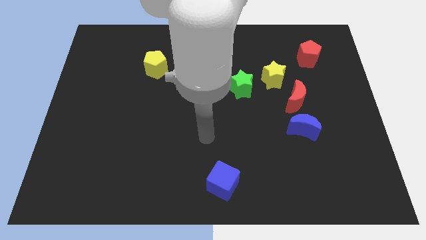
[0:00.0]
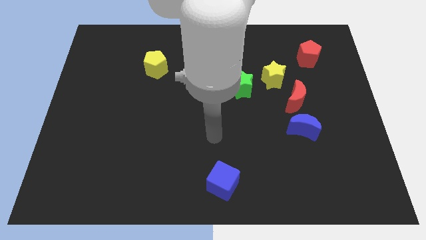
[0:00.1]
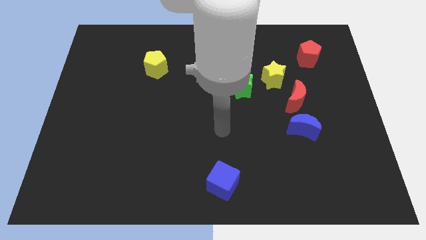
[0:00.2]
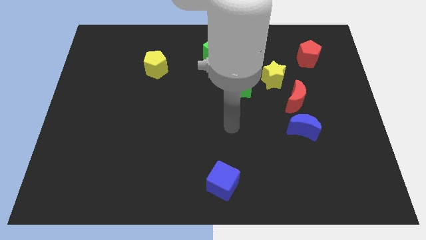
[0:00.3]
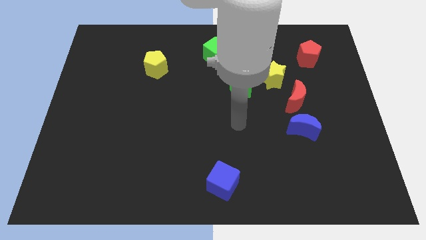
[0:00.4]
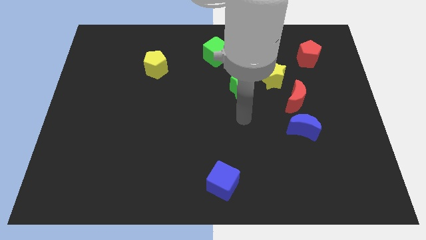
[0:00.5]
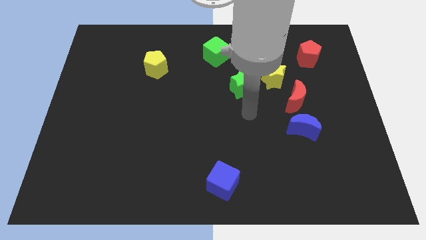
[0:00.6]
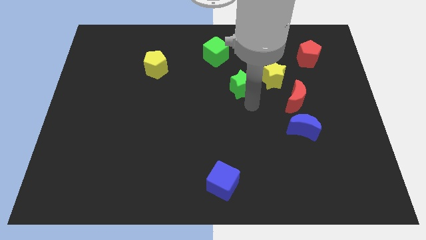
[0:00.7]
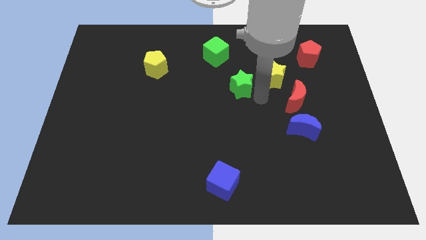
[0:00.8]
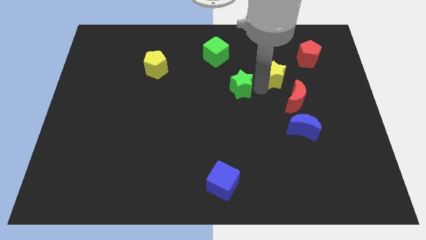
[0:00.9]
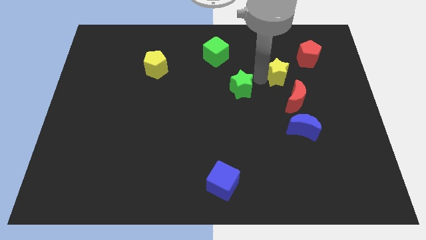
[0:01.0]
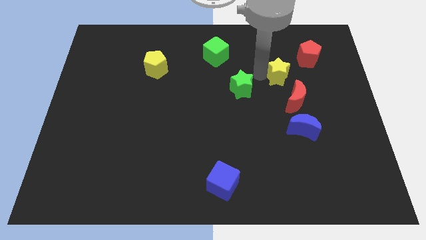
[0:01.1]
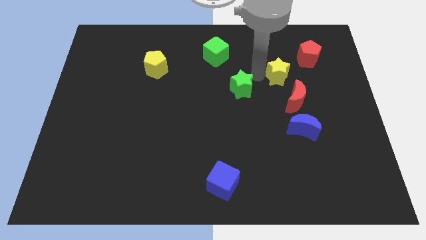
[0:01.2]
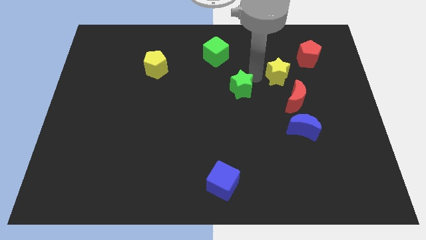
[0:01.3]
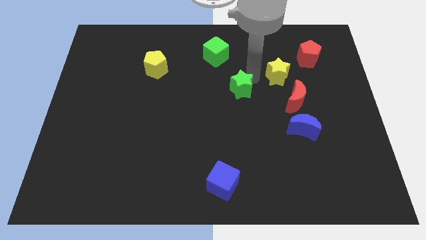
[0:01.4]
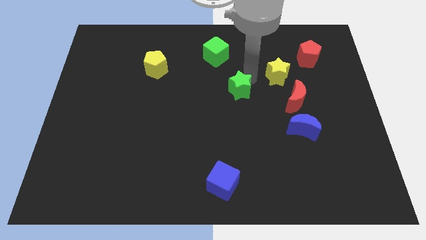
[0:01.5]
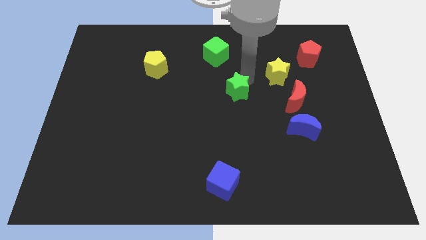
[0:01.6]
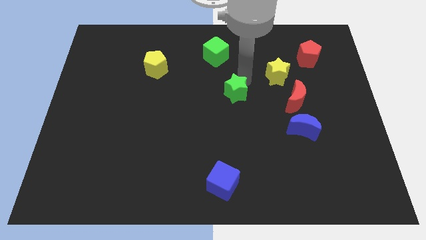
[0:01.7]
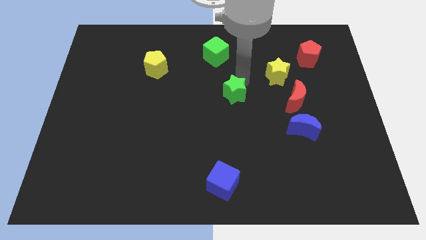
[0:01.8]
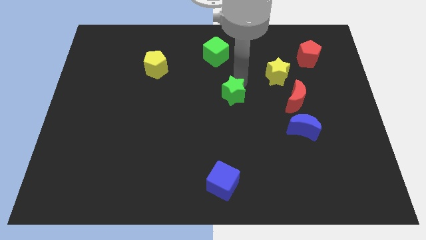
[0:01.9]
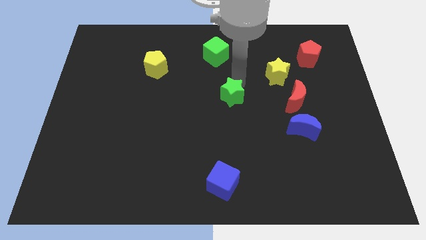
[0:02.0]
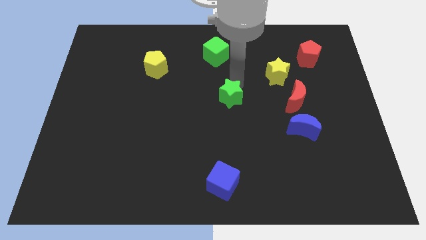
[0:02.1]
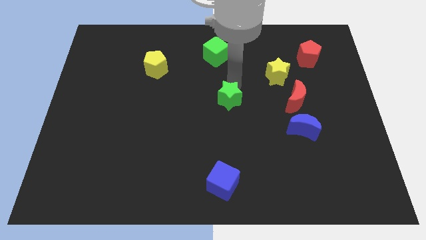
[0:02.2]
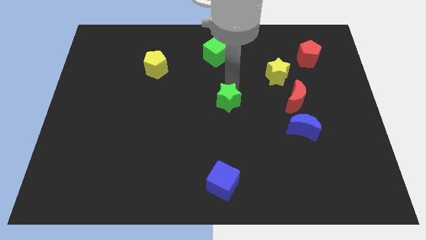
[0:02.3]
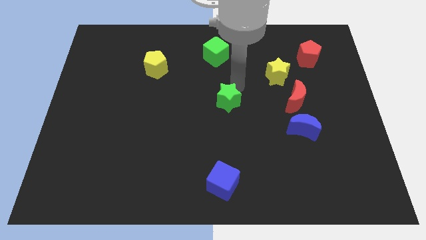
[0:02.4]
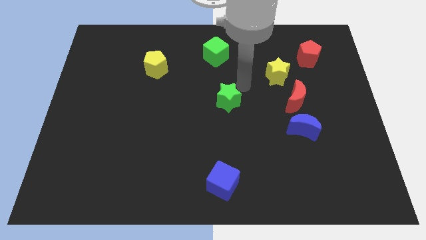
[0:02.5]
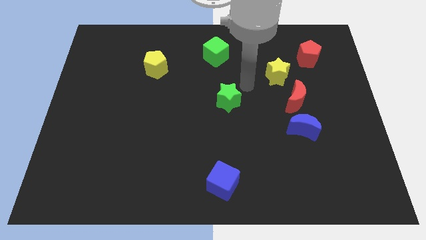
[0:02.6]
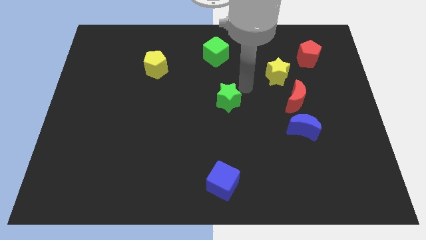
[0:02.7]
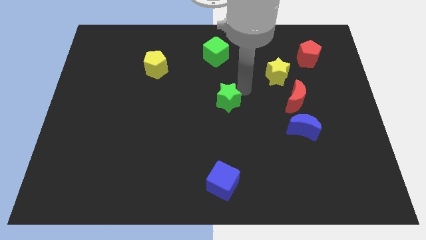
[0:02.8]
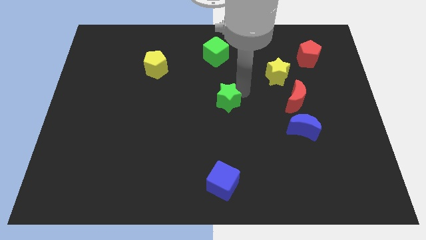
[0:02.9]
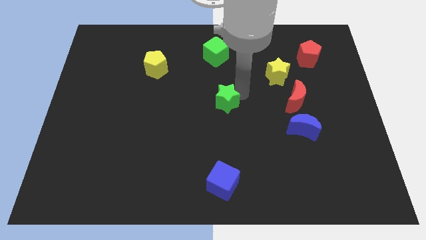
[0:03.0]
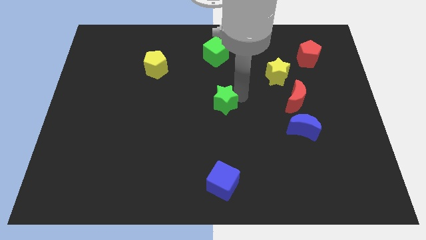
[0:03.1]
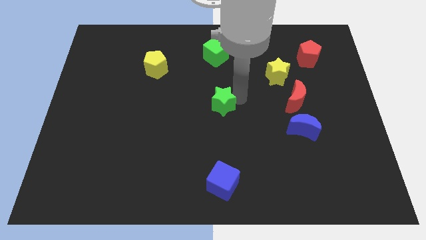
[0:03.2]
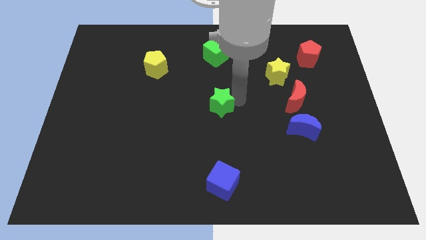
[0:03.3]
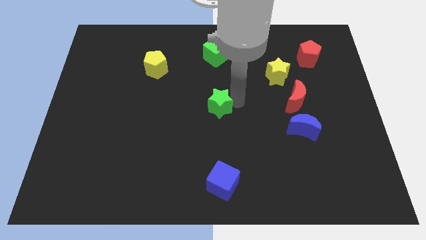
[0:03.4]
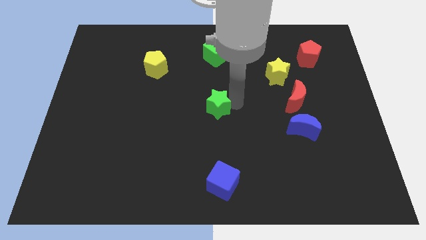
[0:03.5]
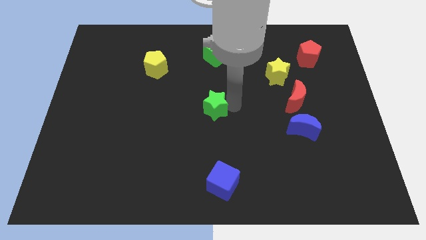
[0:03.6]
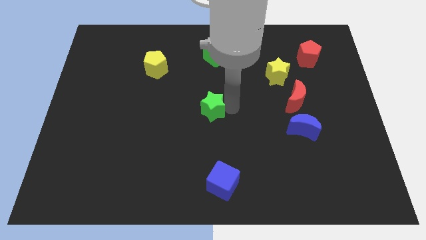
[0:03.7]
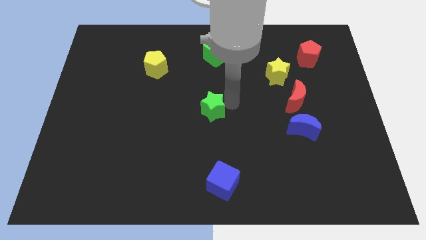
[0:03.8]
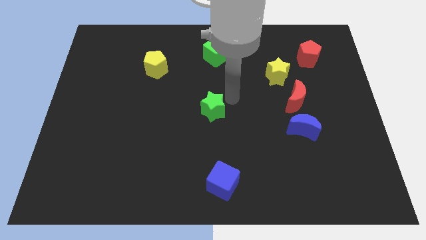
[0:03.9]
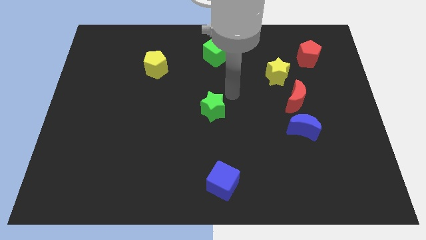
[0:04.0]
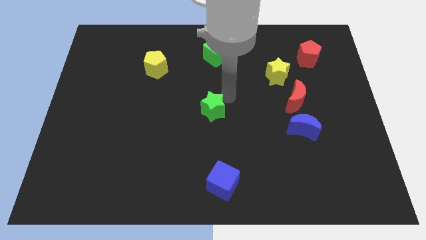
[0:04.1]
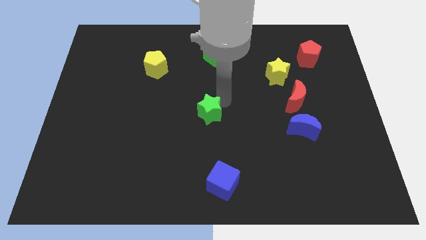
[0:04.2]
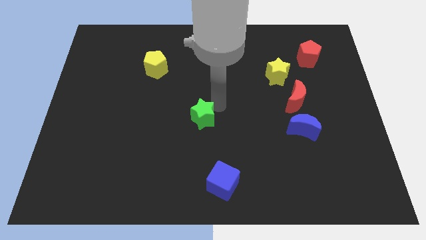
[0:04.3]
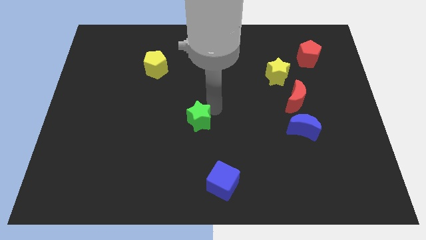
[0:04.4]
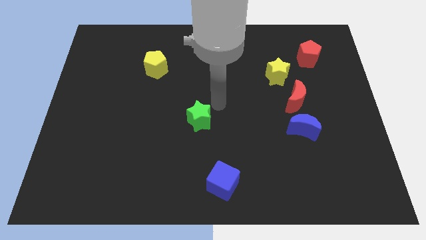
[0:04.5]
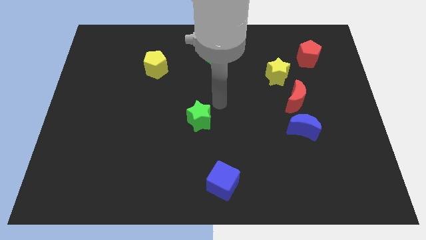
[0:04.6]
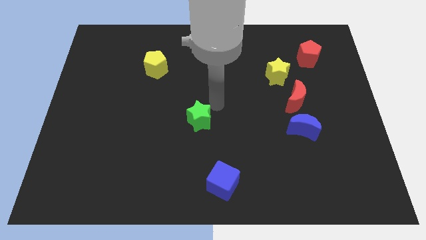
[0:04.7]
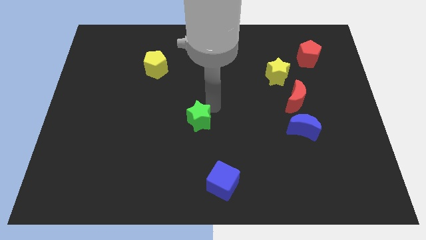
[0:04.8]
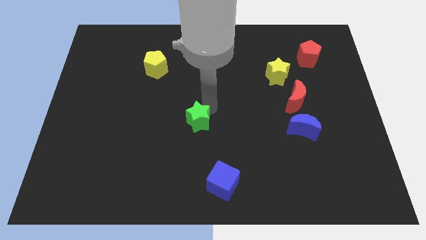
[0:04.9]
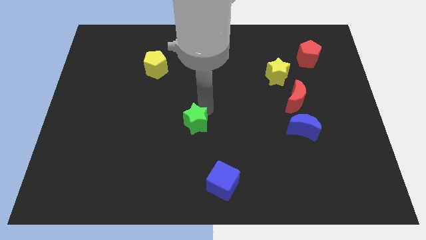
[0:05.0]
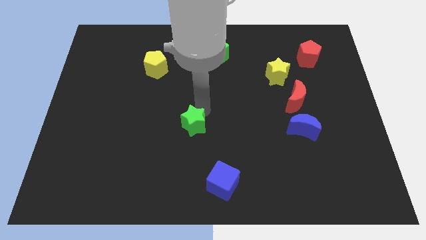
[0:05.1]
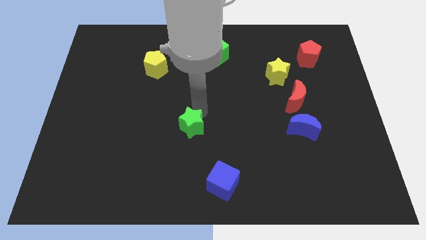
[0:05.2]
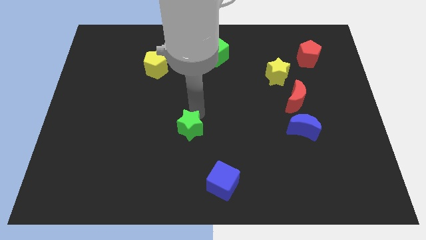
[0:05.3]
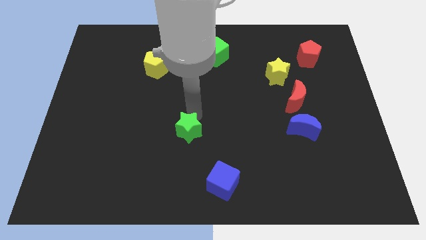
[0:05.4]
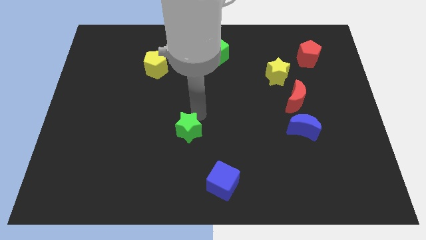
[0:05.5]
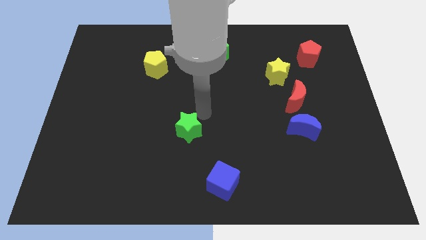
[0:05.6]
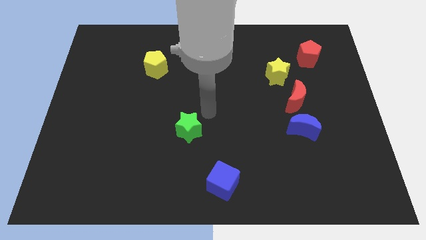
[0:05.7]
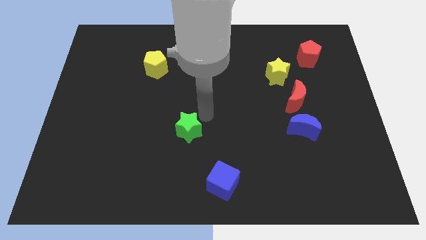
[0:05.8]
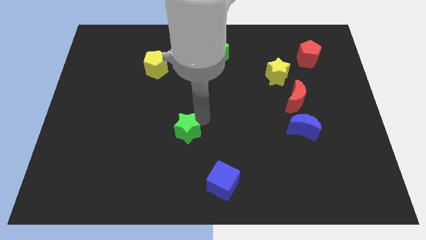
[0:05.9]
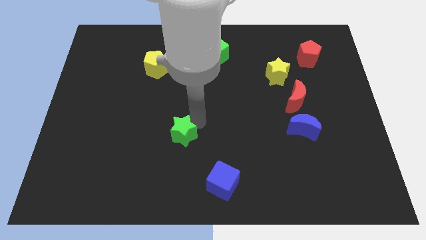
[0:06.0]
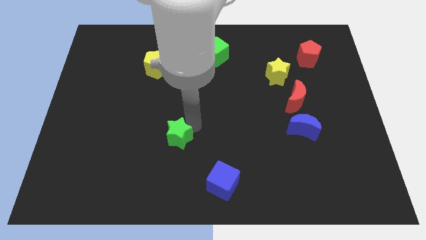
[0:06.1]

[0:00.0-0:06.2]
slide the green star down and left diagonally

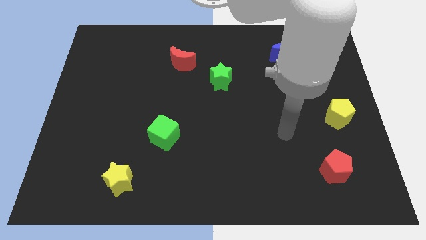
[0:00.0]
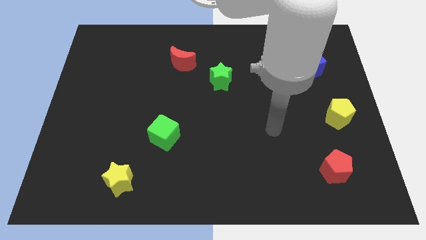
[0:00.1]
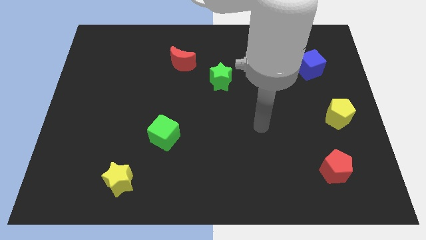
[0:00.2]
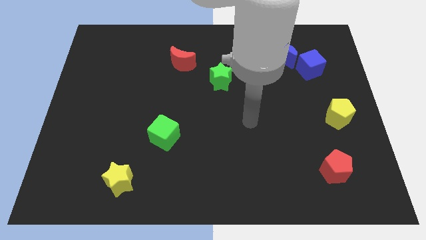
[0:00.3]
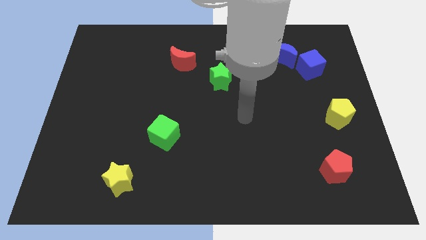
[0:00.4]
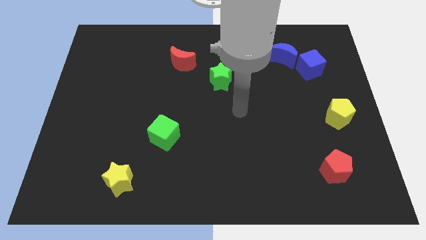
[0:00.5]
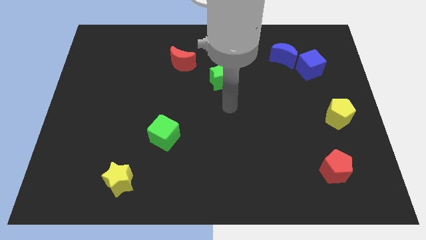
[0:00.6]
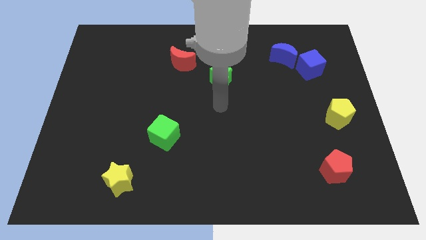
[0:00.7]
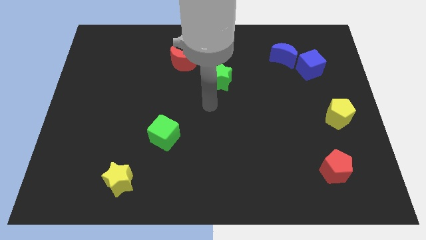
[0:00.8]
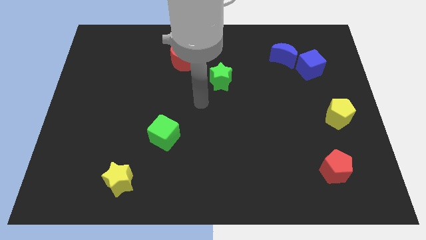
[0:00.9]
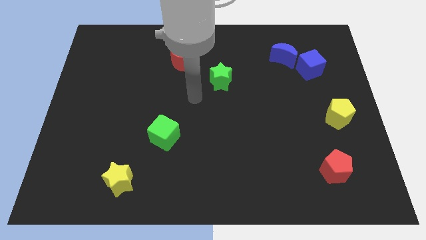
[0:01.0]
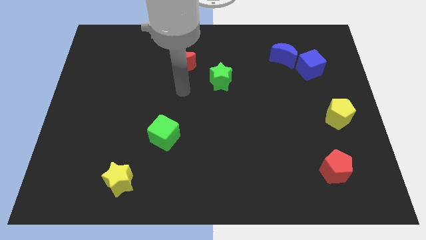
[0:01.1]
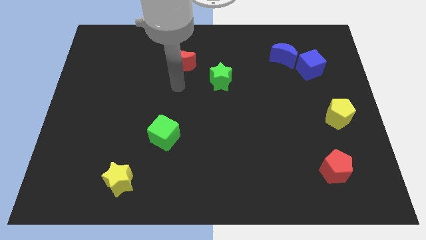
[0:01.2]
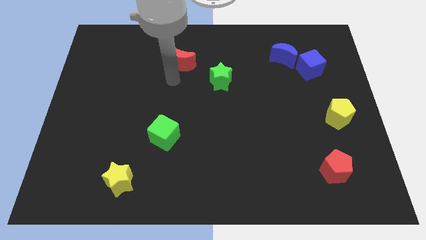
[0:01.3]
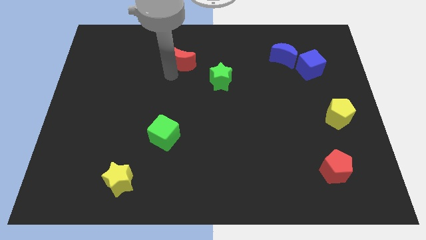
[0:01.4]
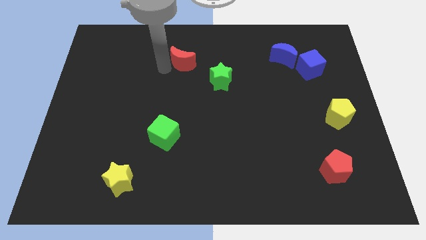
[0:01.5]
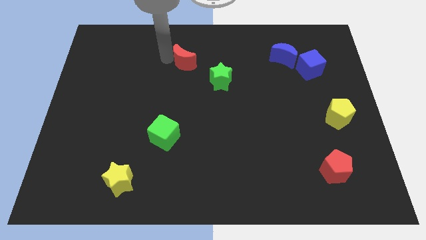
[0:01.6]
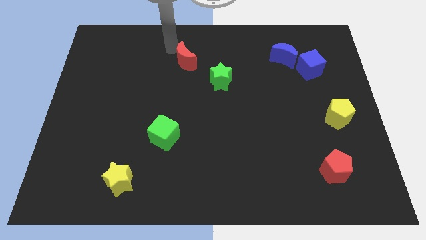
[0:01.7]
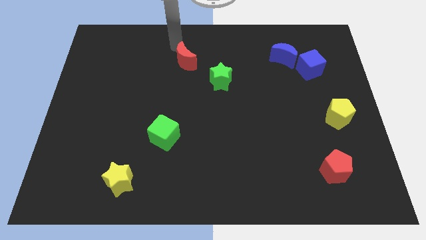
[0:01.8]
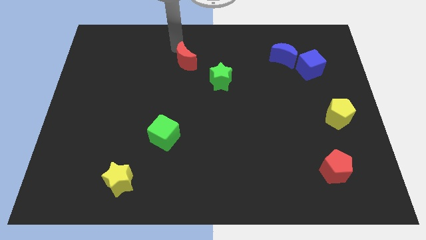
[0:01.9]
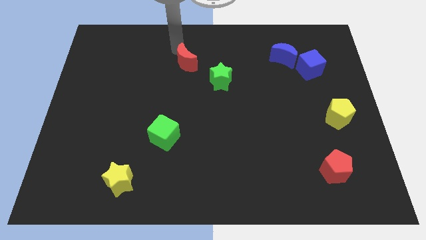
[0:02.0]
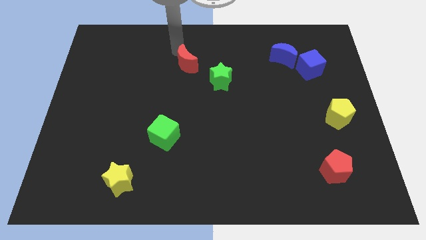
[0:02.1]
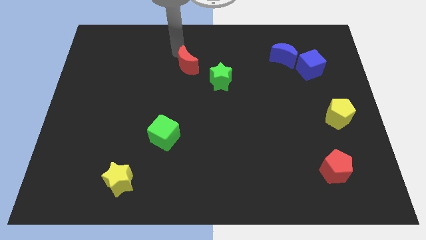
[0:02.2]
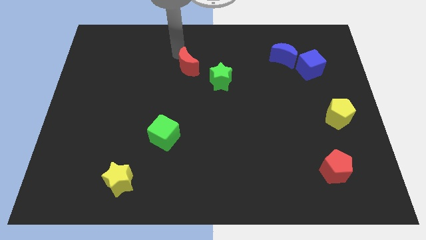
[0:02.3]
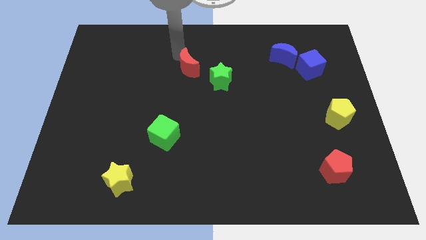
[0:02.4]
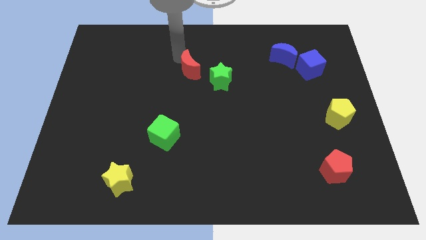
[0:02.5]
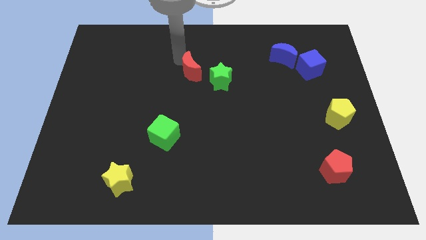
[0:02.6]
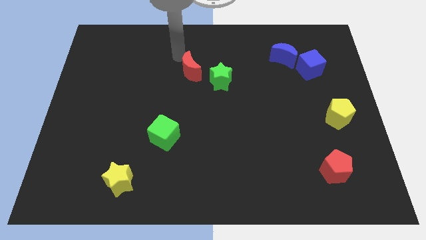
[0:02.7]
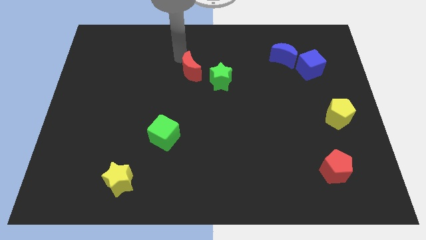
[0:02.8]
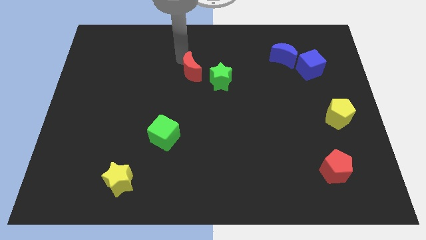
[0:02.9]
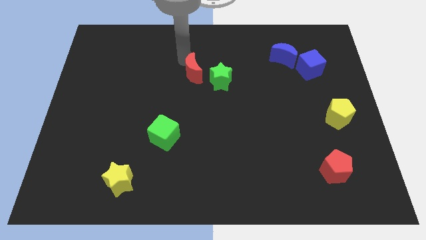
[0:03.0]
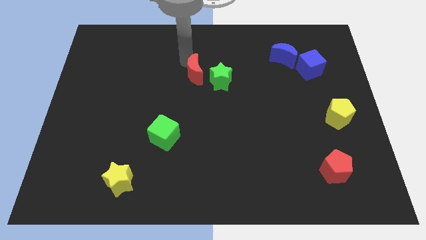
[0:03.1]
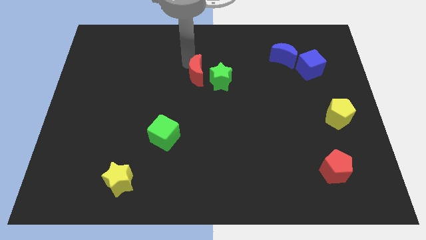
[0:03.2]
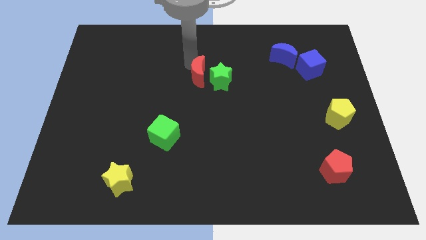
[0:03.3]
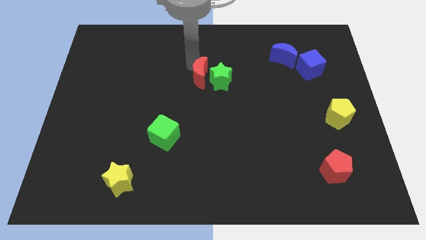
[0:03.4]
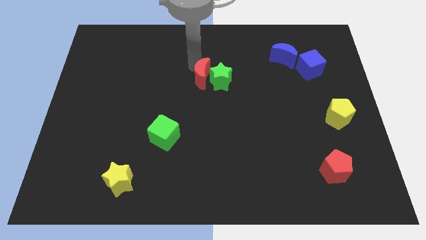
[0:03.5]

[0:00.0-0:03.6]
move the red moon slightly downwards and to the right diagonally
